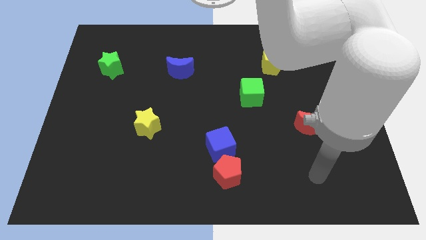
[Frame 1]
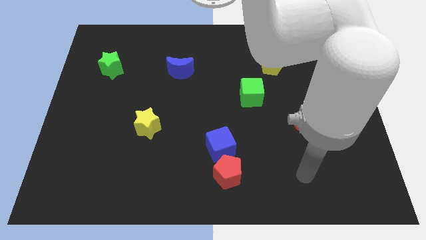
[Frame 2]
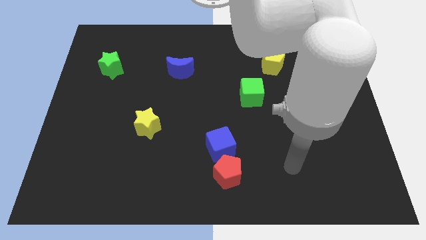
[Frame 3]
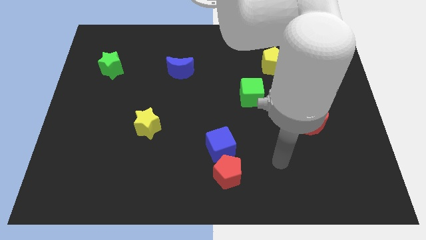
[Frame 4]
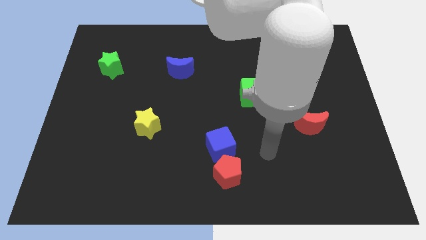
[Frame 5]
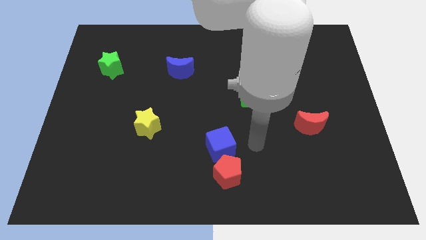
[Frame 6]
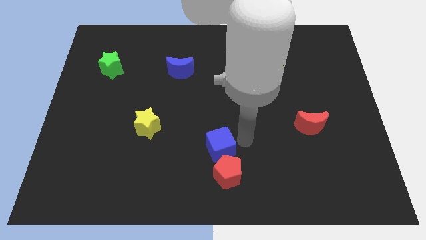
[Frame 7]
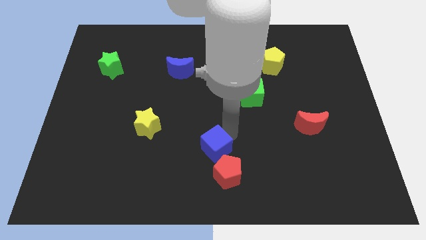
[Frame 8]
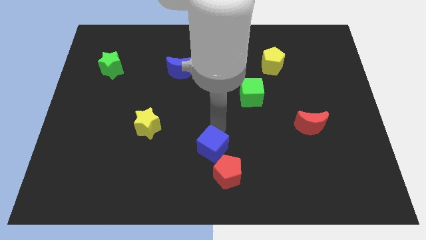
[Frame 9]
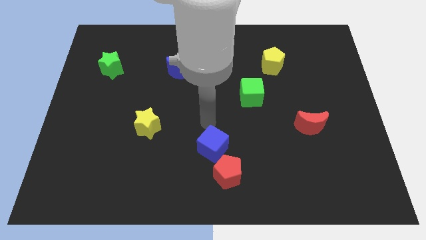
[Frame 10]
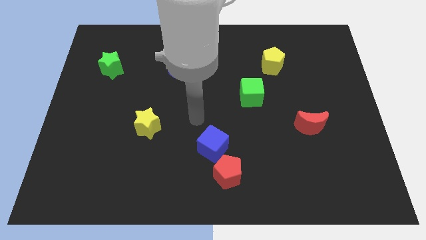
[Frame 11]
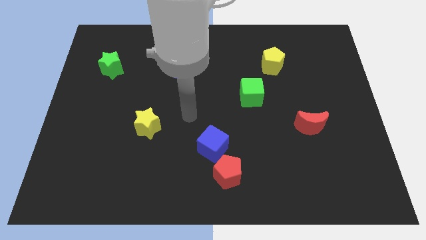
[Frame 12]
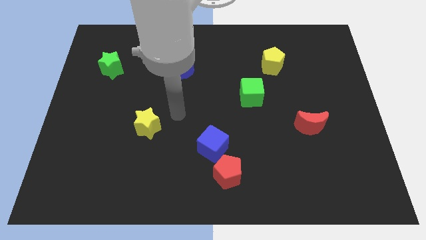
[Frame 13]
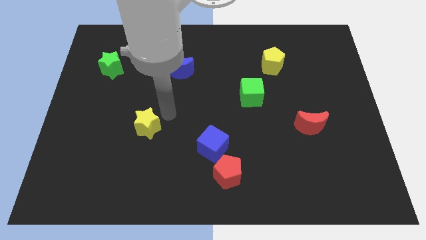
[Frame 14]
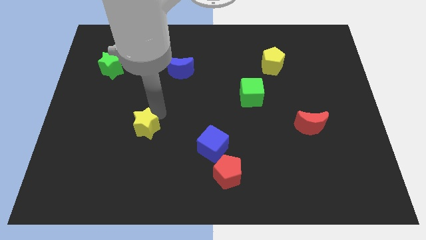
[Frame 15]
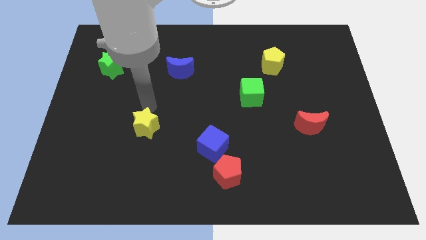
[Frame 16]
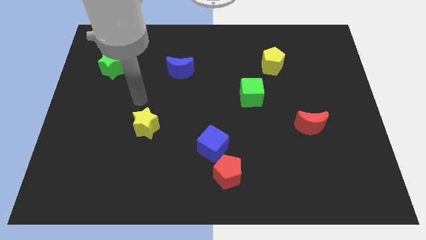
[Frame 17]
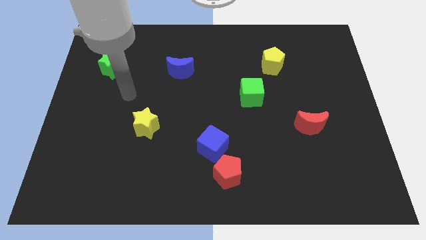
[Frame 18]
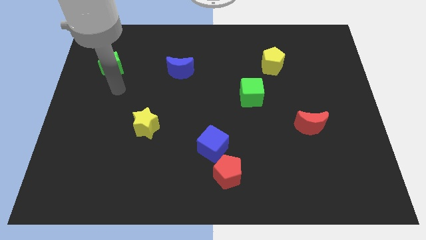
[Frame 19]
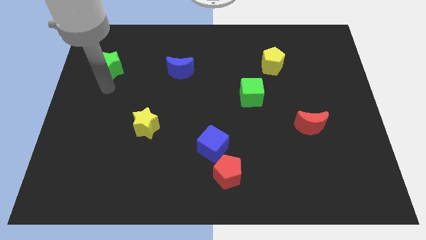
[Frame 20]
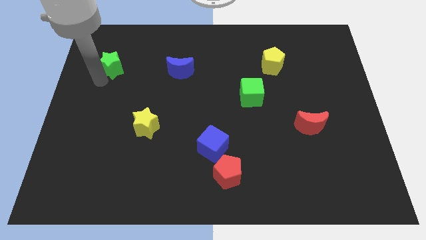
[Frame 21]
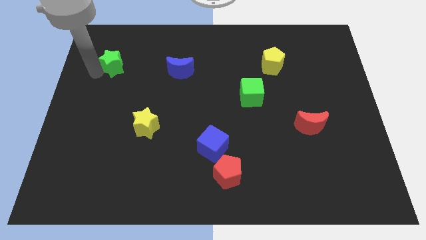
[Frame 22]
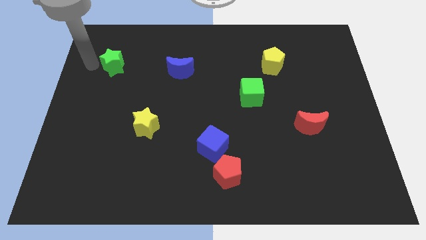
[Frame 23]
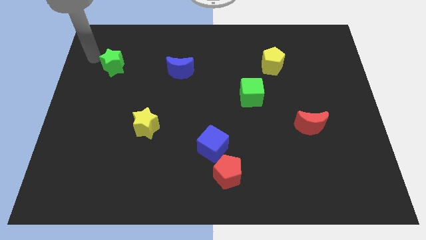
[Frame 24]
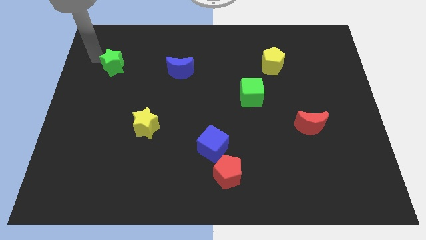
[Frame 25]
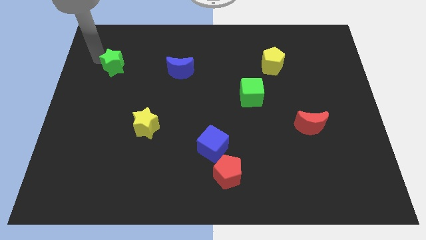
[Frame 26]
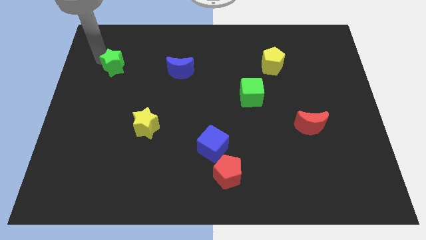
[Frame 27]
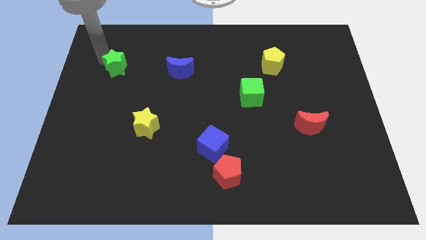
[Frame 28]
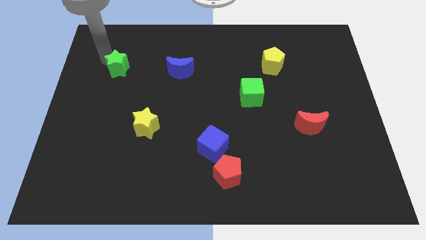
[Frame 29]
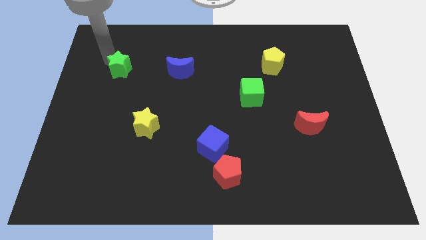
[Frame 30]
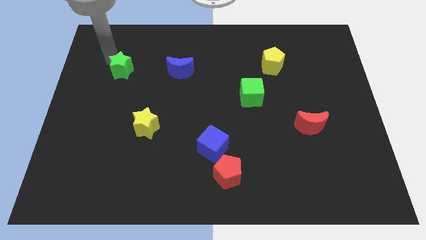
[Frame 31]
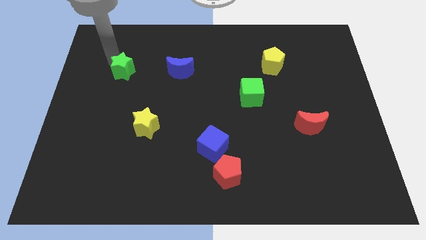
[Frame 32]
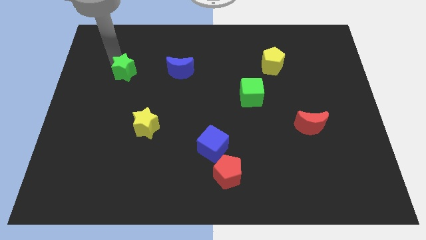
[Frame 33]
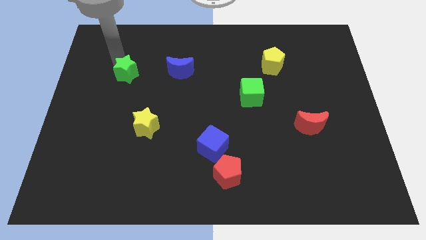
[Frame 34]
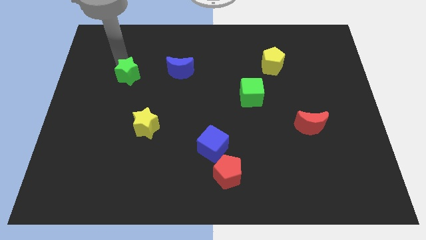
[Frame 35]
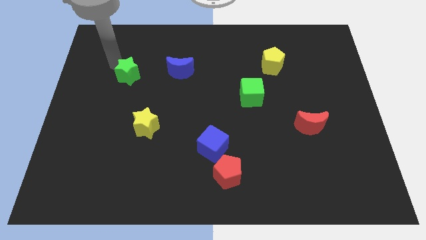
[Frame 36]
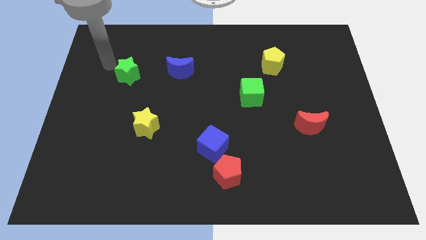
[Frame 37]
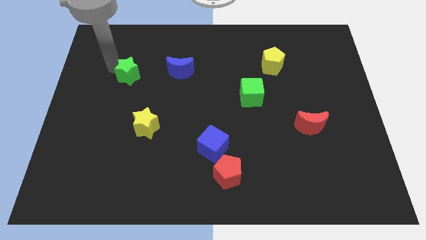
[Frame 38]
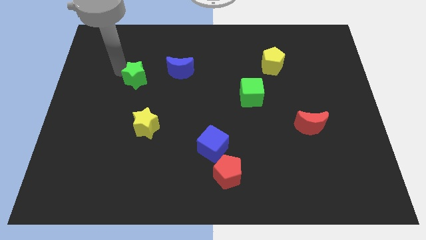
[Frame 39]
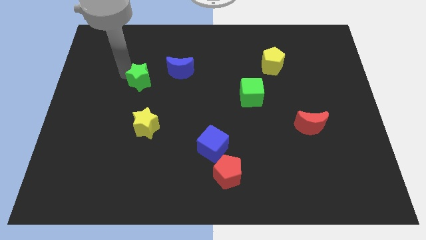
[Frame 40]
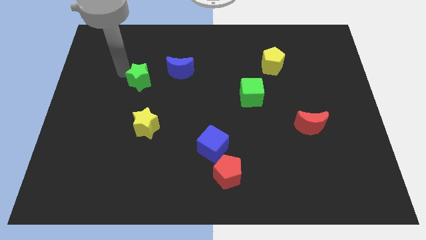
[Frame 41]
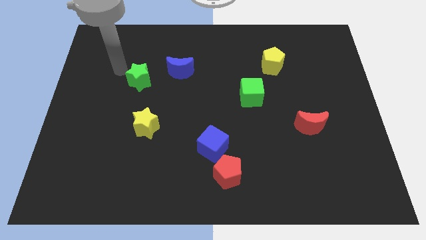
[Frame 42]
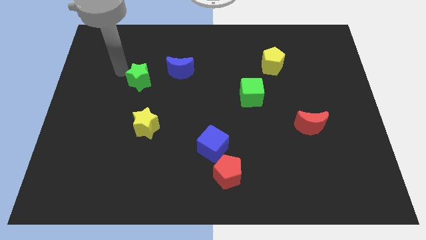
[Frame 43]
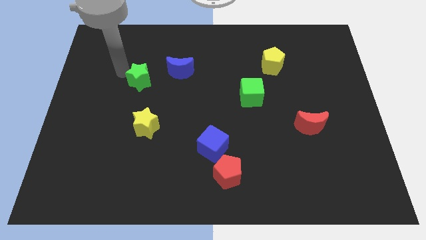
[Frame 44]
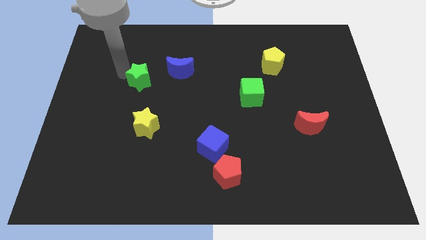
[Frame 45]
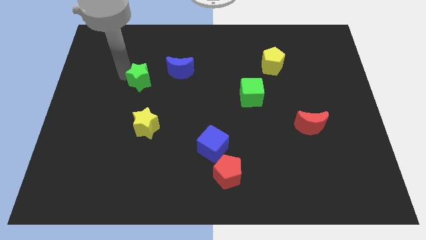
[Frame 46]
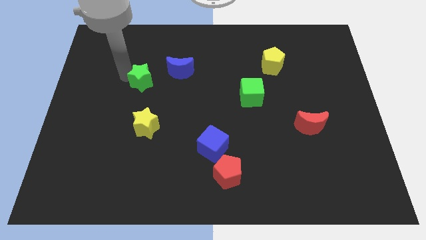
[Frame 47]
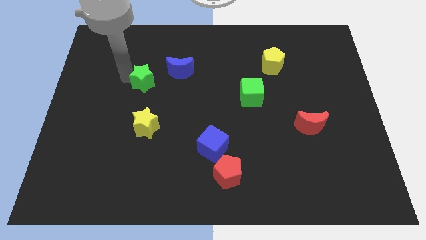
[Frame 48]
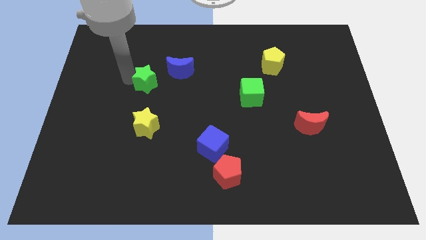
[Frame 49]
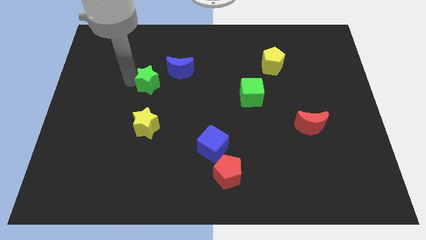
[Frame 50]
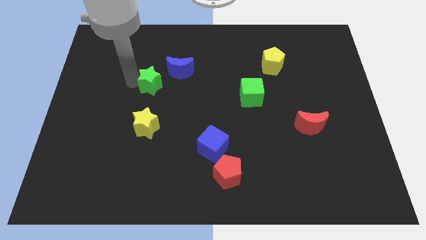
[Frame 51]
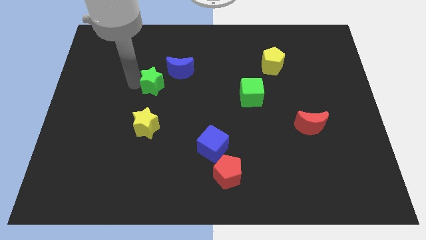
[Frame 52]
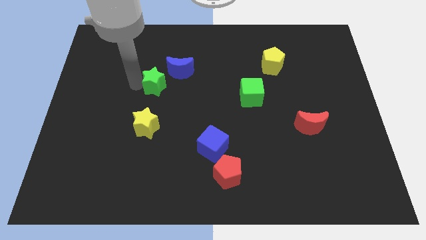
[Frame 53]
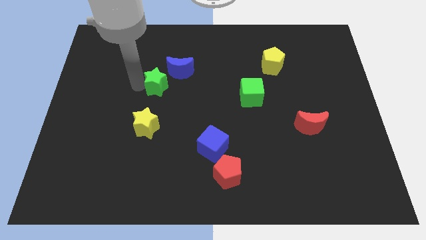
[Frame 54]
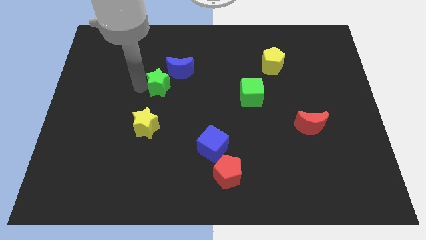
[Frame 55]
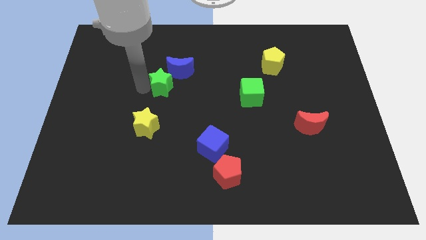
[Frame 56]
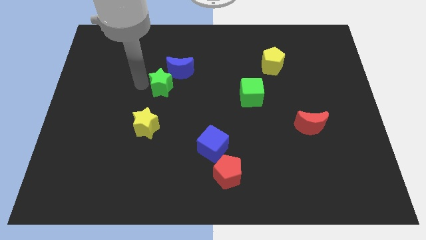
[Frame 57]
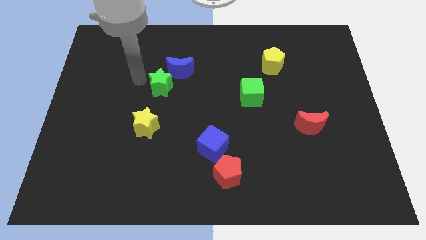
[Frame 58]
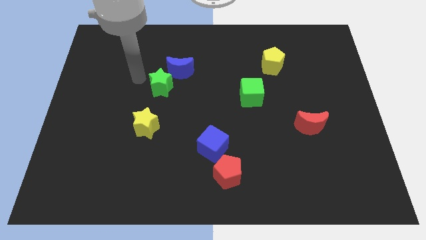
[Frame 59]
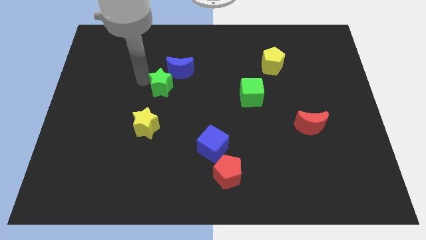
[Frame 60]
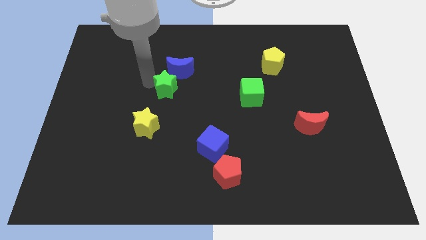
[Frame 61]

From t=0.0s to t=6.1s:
move the green star to the center
